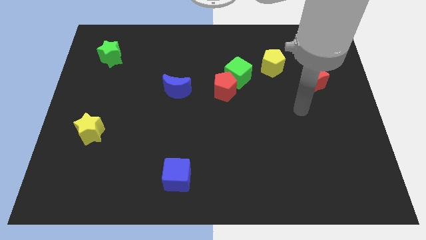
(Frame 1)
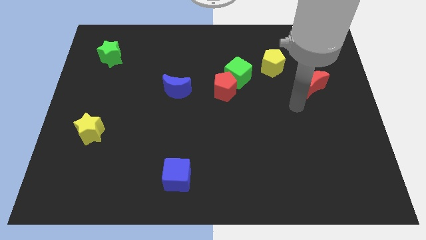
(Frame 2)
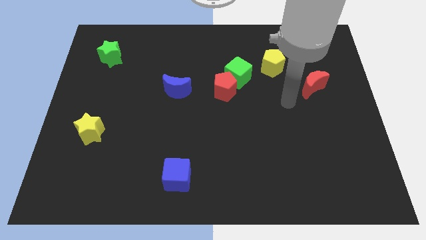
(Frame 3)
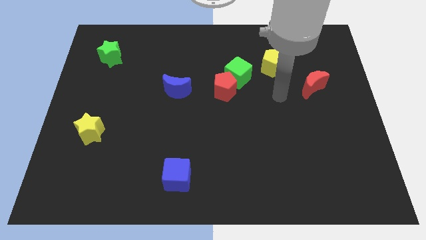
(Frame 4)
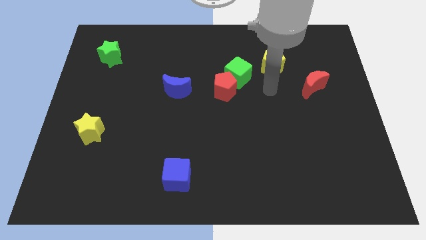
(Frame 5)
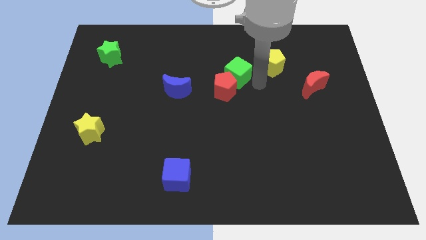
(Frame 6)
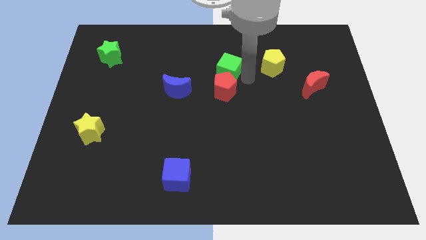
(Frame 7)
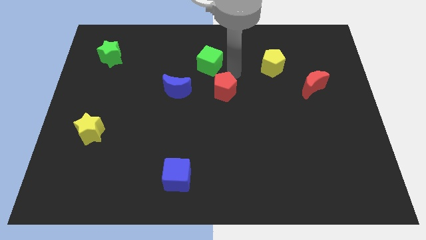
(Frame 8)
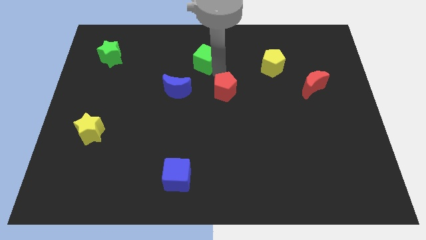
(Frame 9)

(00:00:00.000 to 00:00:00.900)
pull the red pentagon apart from the green cube

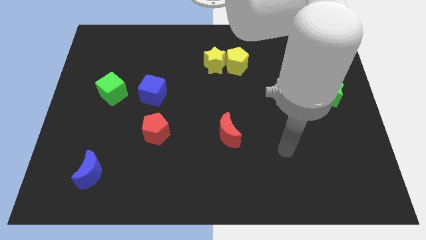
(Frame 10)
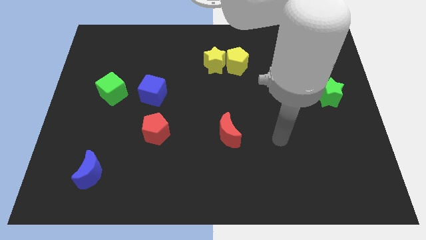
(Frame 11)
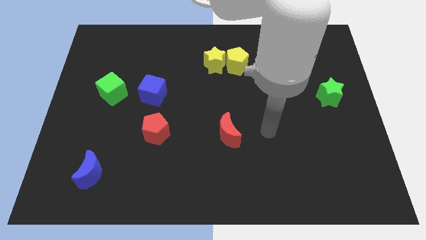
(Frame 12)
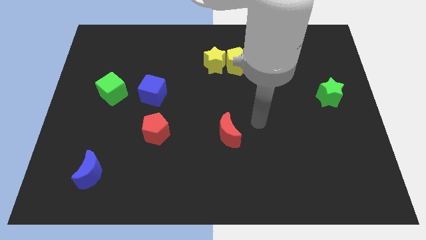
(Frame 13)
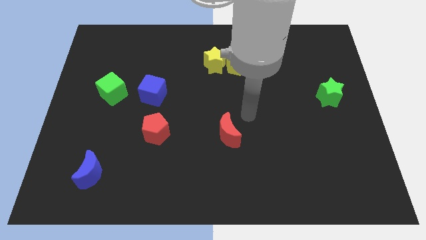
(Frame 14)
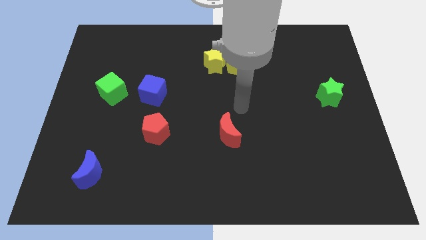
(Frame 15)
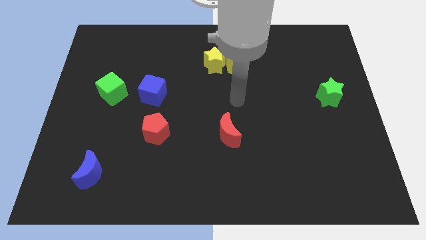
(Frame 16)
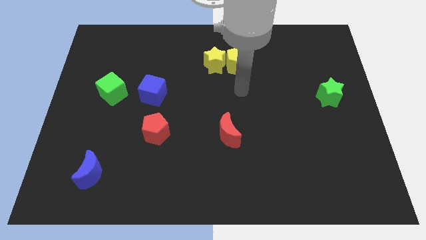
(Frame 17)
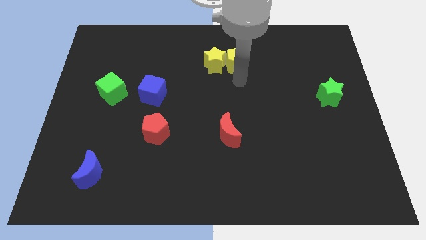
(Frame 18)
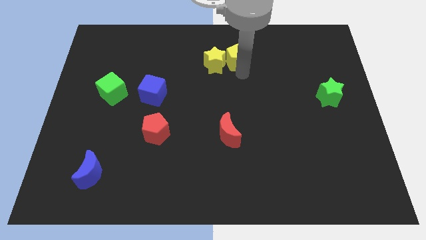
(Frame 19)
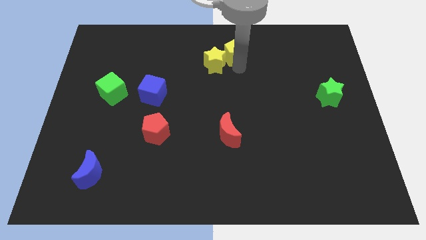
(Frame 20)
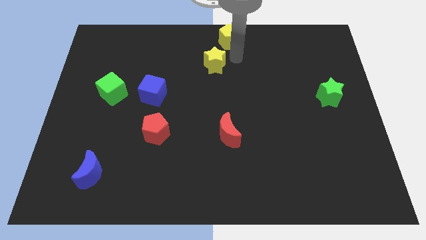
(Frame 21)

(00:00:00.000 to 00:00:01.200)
pull the yellow star apart from the yellow pentagon

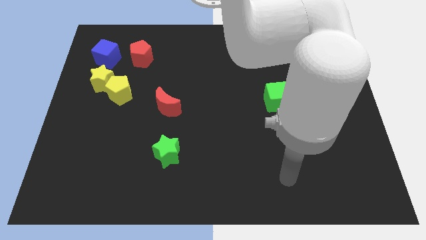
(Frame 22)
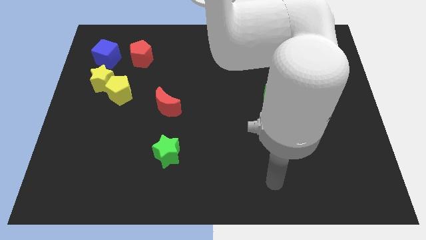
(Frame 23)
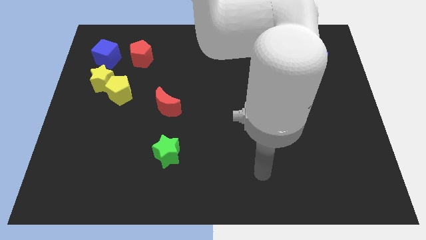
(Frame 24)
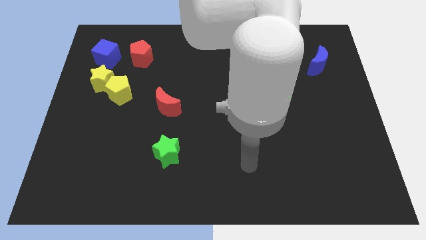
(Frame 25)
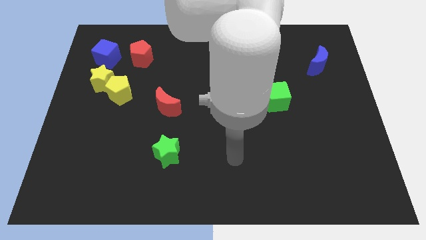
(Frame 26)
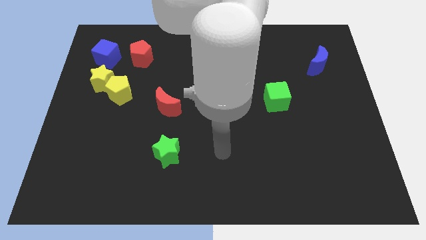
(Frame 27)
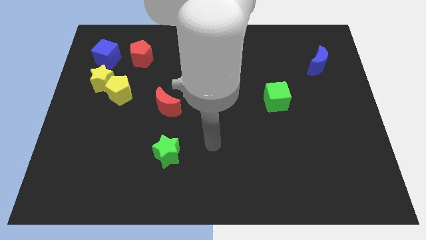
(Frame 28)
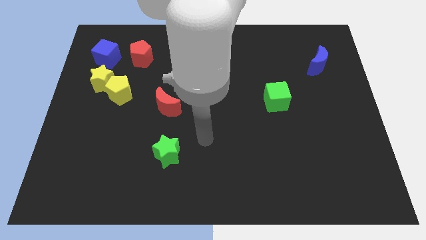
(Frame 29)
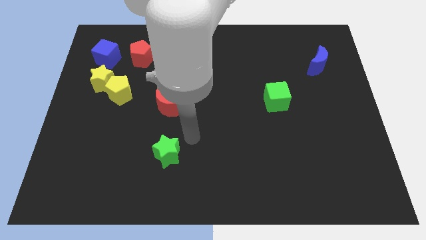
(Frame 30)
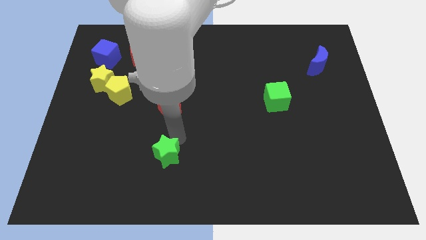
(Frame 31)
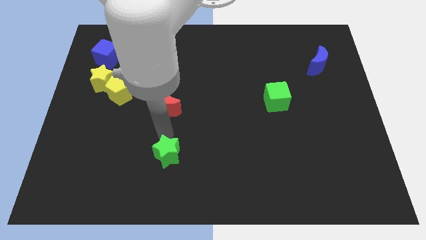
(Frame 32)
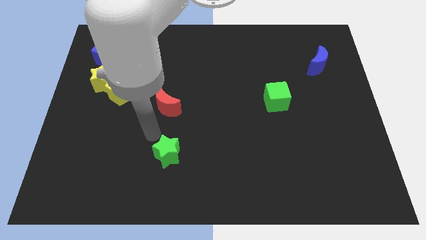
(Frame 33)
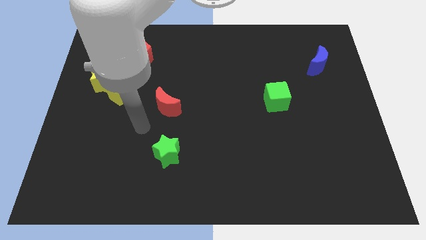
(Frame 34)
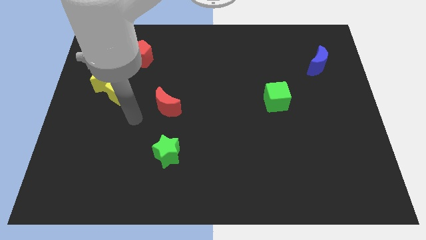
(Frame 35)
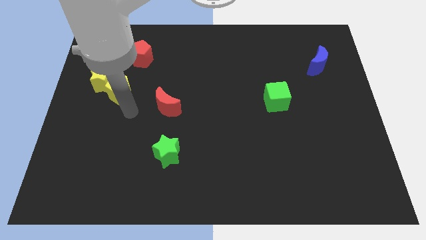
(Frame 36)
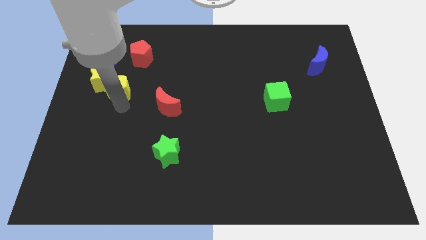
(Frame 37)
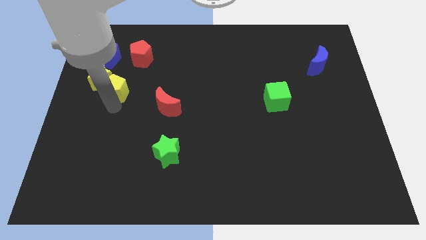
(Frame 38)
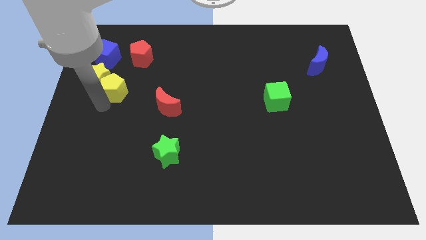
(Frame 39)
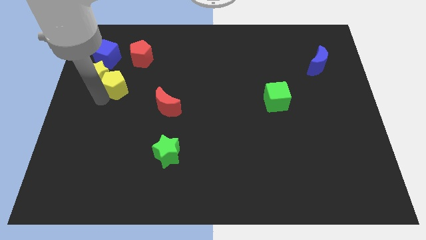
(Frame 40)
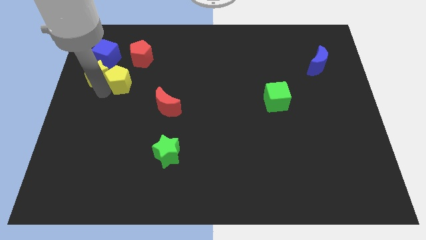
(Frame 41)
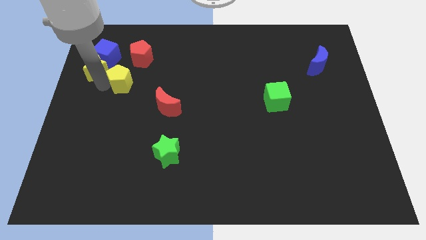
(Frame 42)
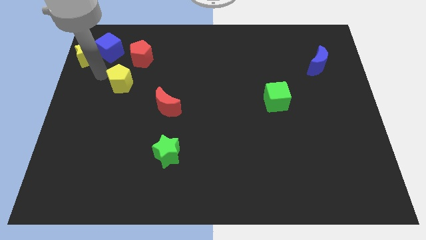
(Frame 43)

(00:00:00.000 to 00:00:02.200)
separate the yellow pentagon from the yellow star

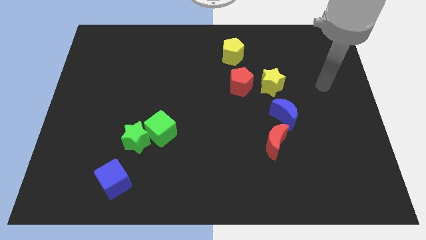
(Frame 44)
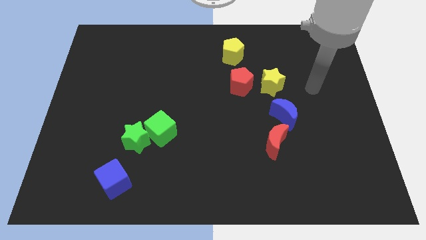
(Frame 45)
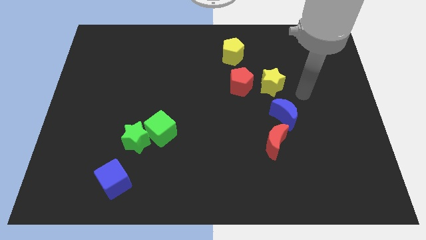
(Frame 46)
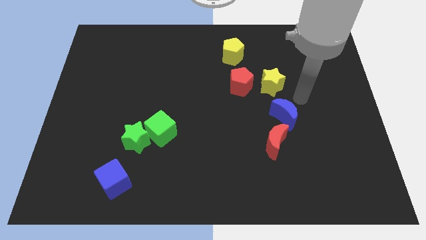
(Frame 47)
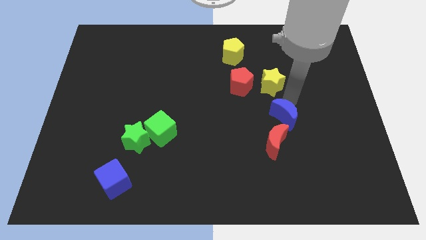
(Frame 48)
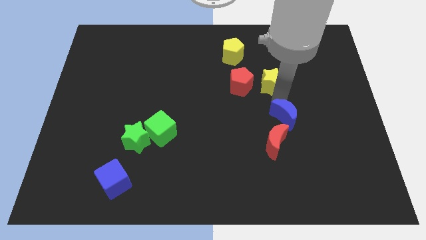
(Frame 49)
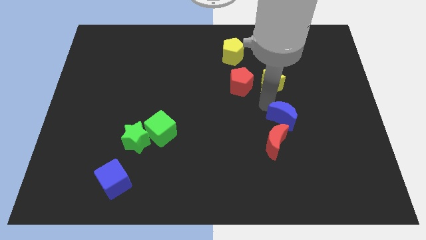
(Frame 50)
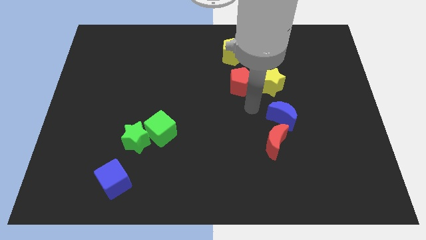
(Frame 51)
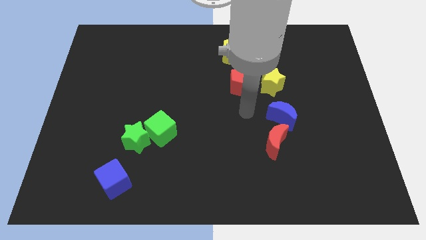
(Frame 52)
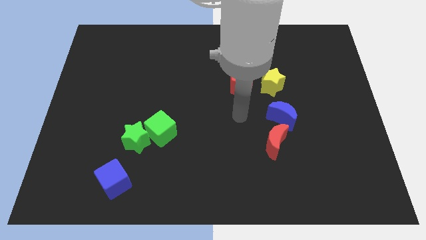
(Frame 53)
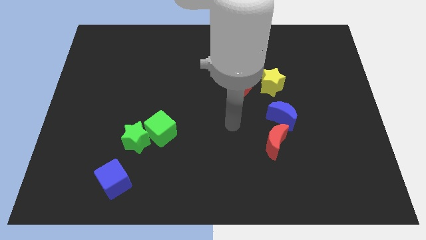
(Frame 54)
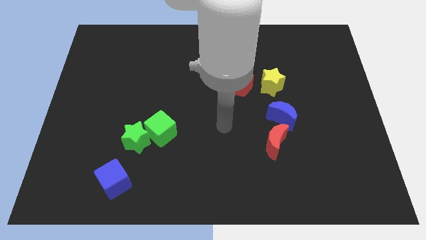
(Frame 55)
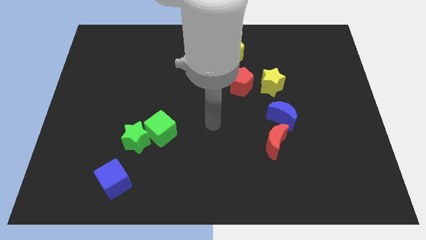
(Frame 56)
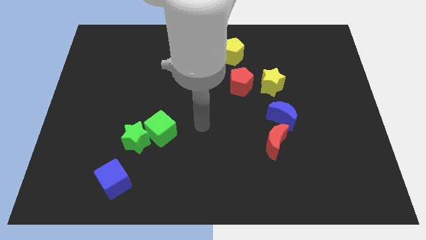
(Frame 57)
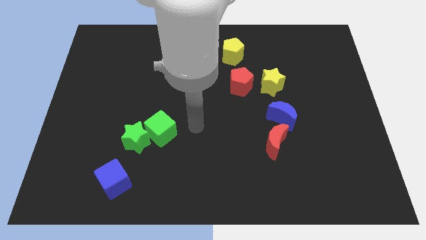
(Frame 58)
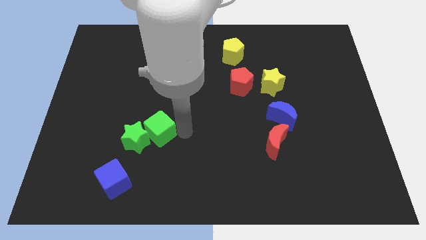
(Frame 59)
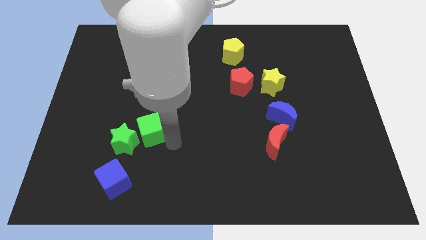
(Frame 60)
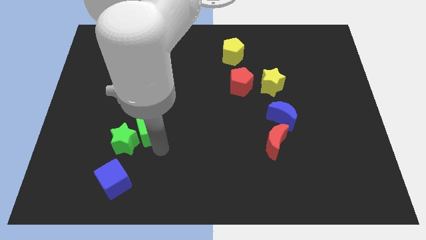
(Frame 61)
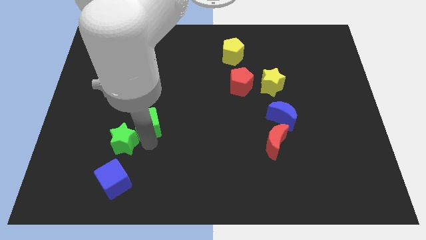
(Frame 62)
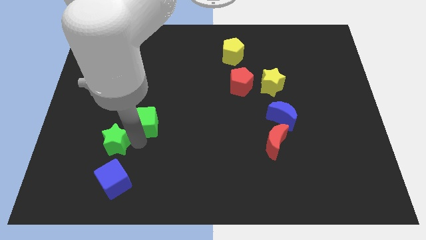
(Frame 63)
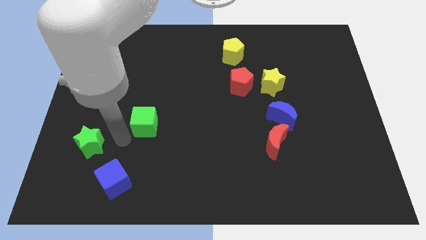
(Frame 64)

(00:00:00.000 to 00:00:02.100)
move the green cube away from the green star

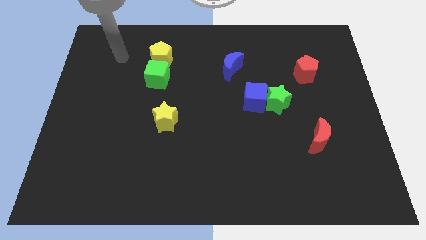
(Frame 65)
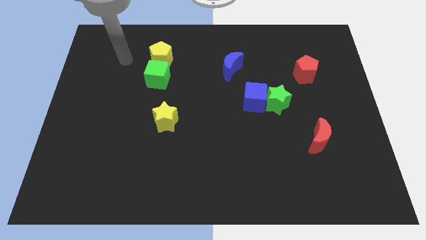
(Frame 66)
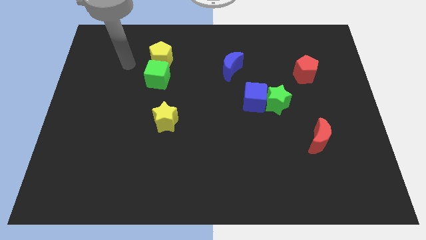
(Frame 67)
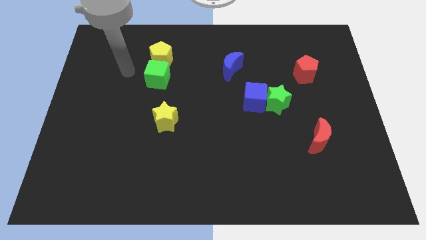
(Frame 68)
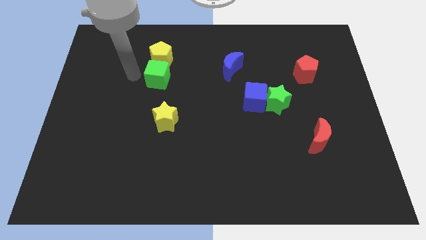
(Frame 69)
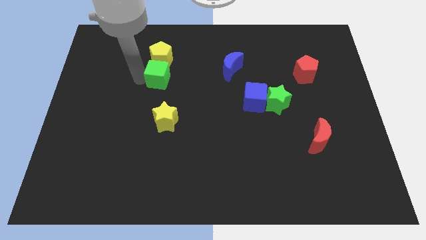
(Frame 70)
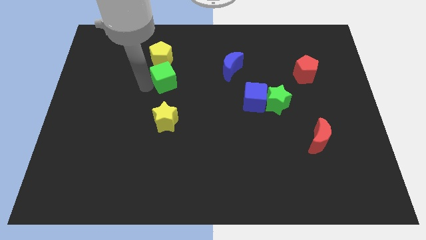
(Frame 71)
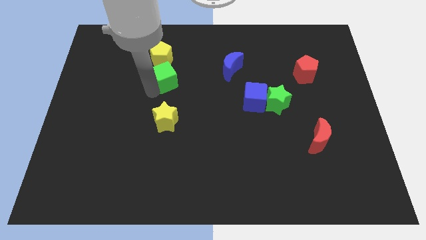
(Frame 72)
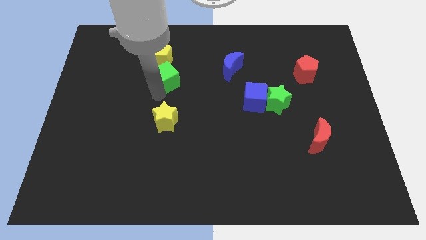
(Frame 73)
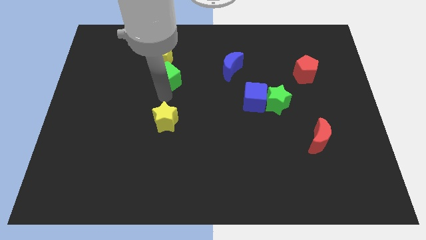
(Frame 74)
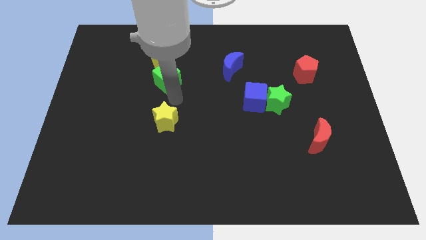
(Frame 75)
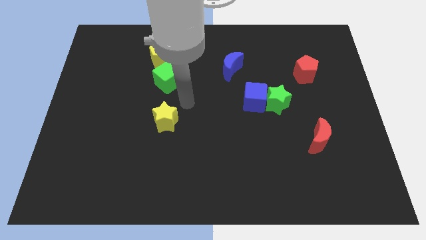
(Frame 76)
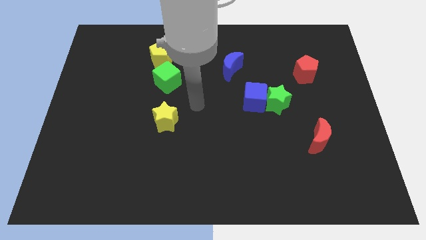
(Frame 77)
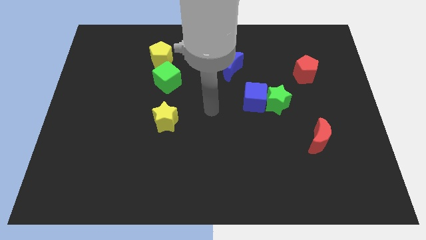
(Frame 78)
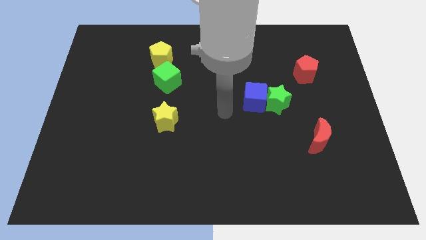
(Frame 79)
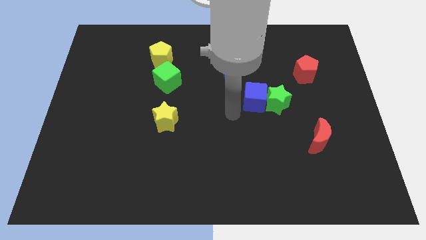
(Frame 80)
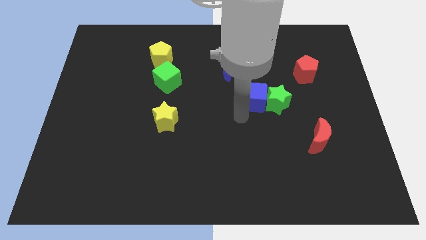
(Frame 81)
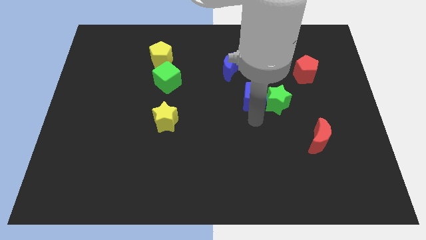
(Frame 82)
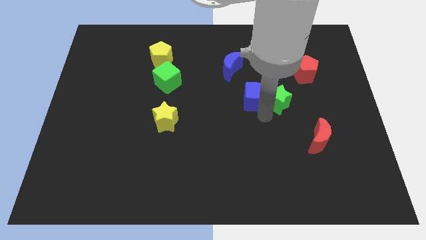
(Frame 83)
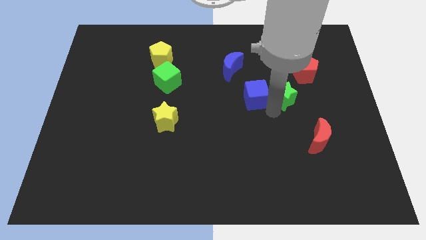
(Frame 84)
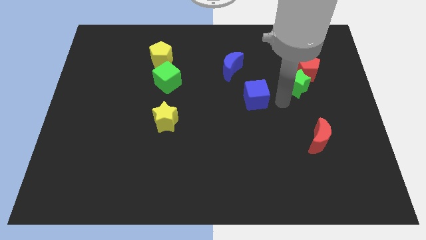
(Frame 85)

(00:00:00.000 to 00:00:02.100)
separate the blue cube from the green star

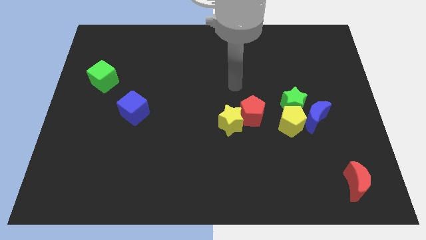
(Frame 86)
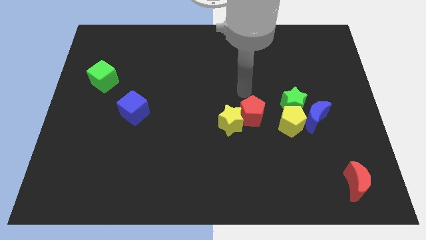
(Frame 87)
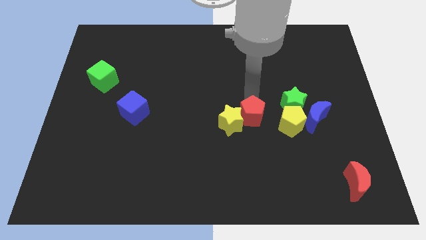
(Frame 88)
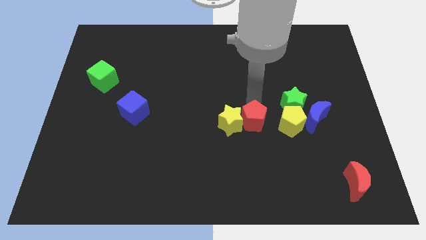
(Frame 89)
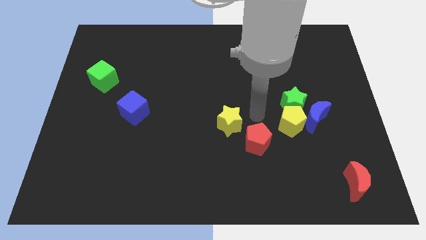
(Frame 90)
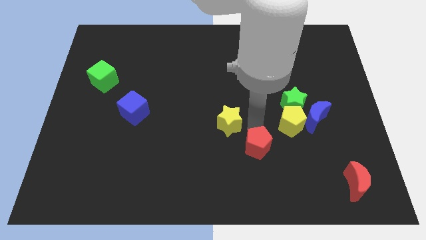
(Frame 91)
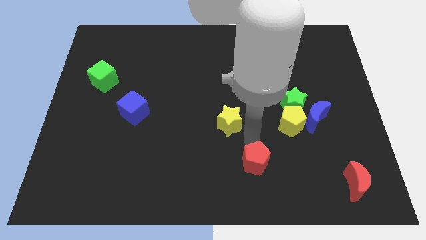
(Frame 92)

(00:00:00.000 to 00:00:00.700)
move the yellow star away from the red pentagon
